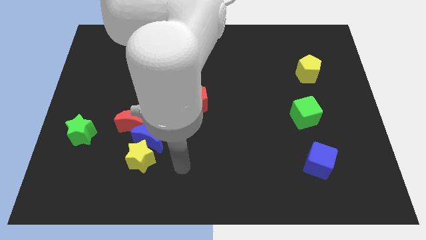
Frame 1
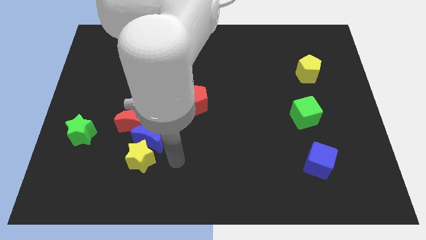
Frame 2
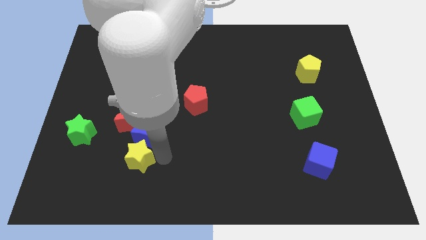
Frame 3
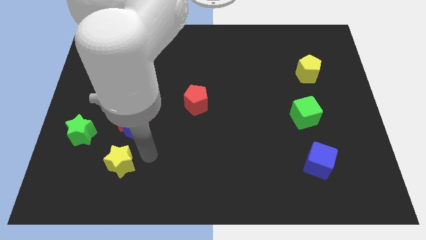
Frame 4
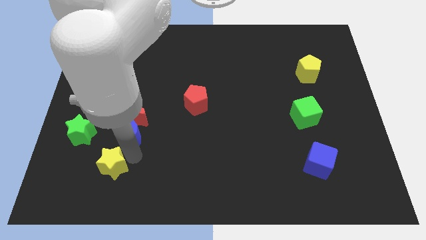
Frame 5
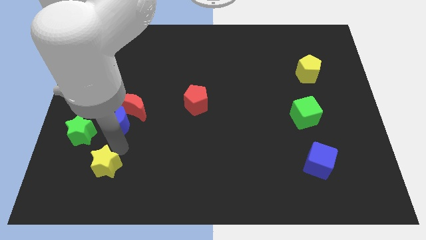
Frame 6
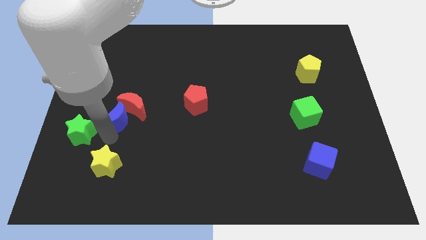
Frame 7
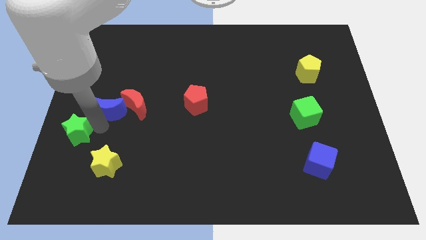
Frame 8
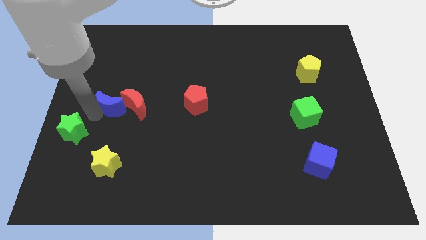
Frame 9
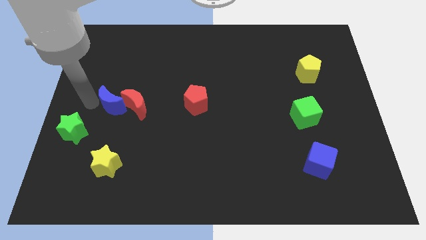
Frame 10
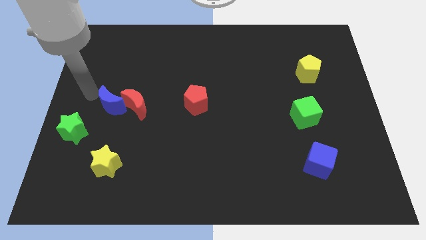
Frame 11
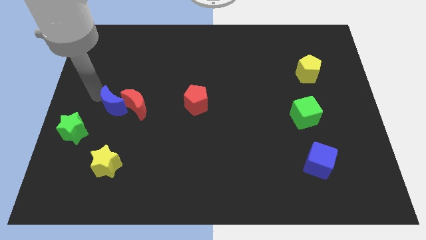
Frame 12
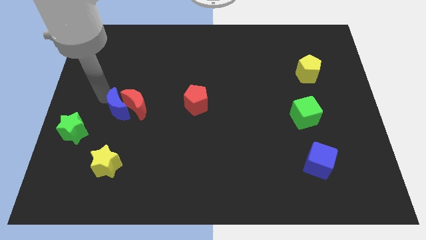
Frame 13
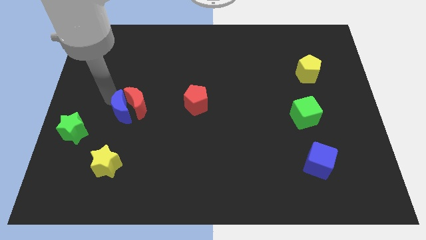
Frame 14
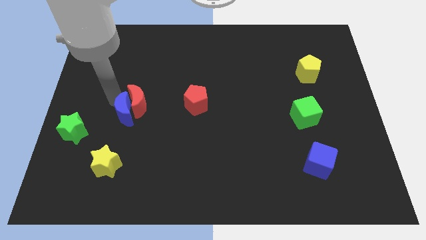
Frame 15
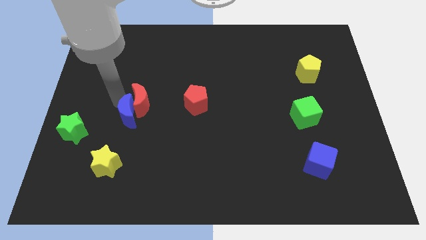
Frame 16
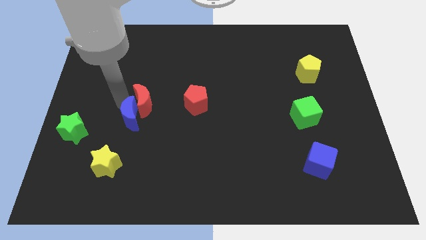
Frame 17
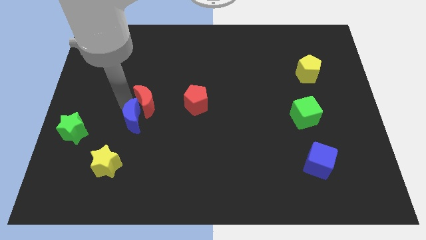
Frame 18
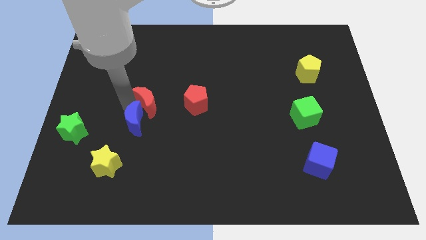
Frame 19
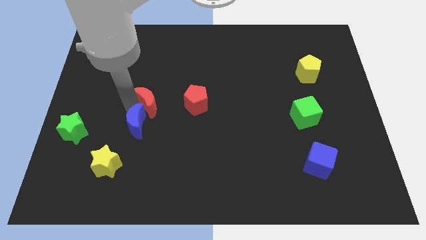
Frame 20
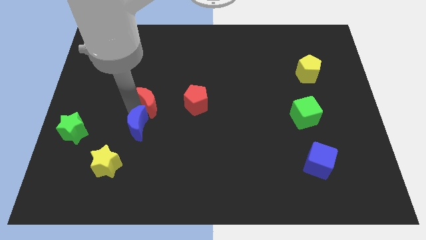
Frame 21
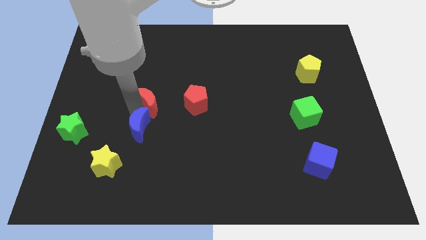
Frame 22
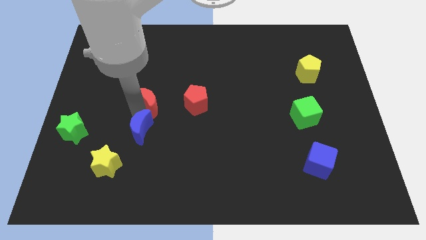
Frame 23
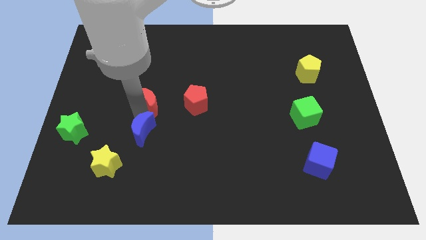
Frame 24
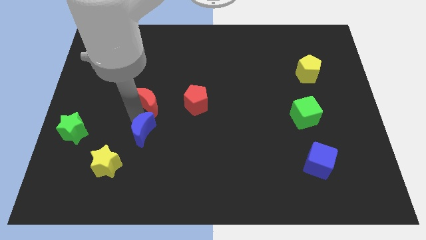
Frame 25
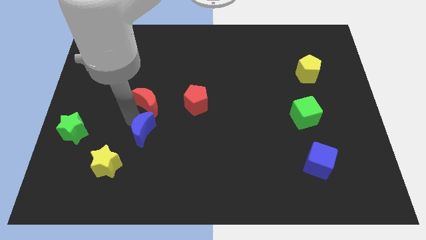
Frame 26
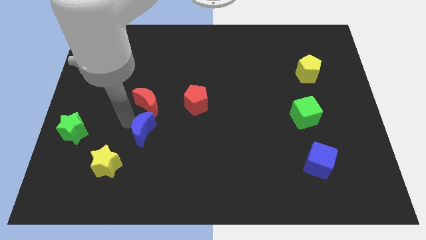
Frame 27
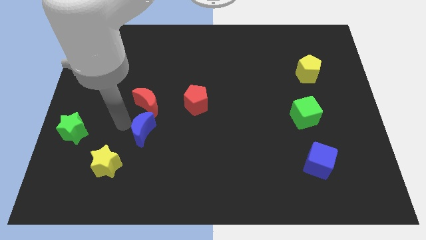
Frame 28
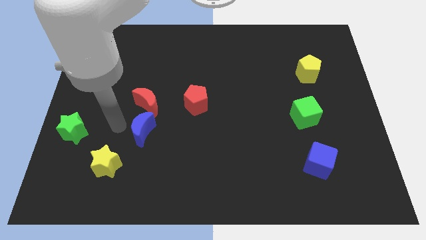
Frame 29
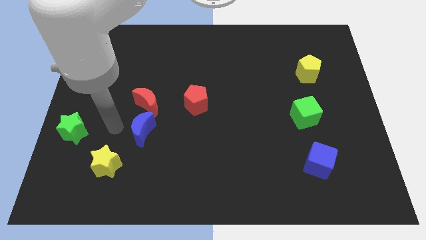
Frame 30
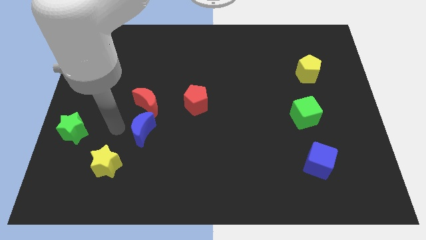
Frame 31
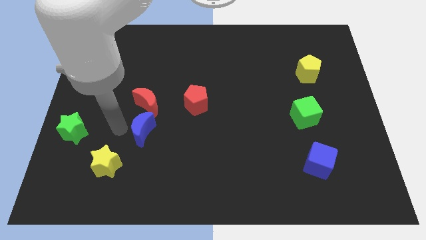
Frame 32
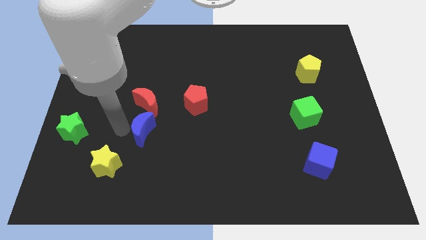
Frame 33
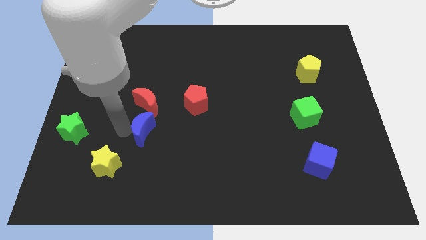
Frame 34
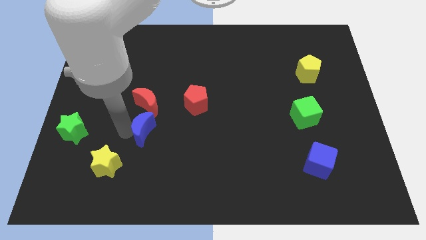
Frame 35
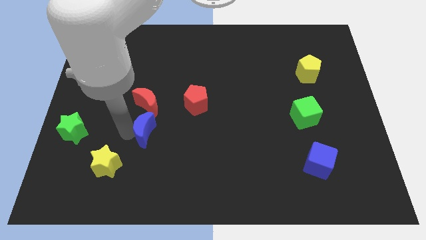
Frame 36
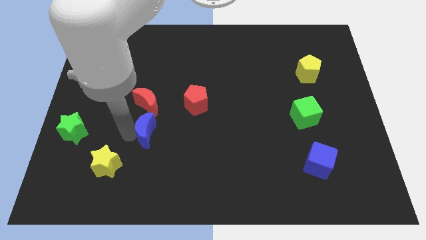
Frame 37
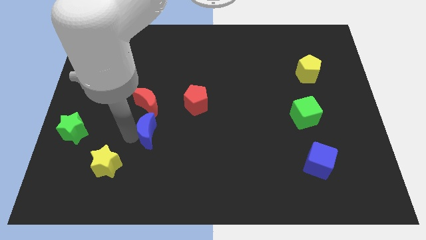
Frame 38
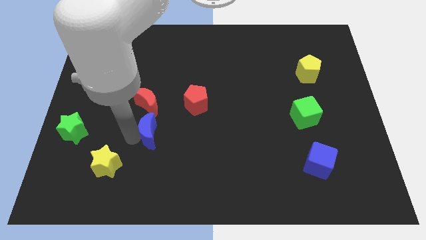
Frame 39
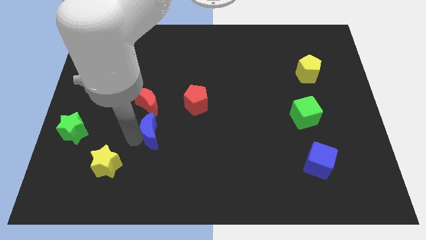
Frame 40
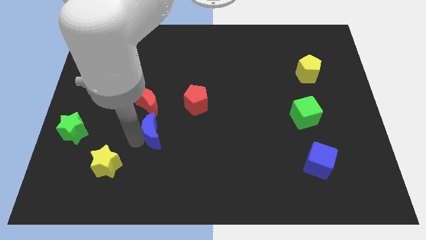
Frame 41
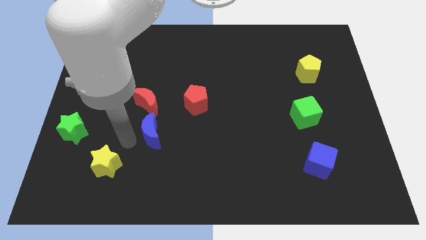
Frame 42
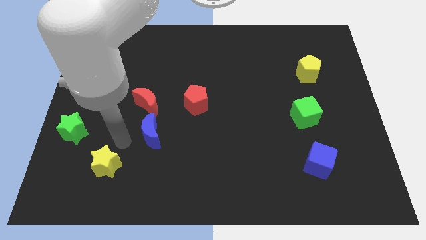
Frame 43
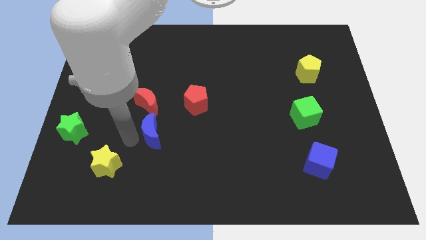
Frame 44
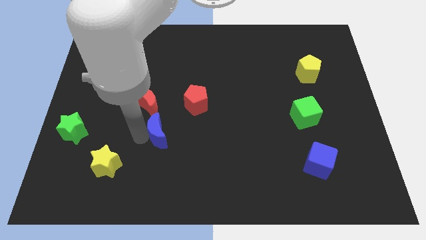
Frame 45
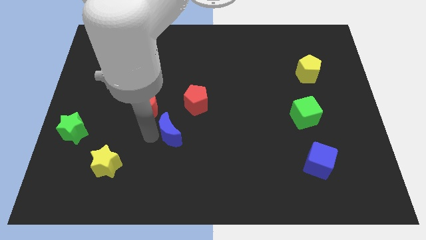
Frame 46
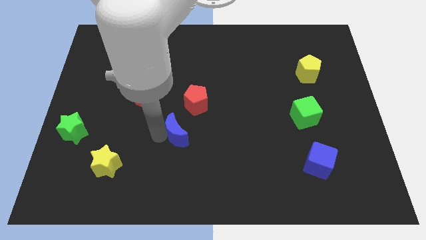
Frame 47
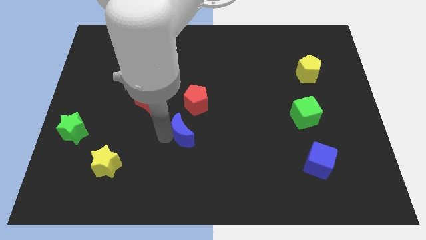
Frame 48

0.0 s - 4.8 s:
move the blue moon to the center of the board

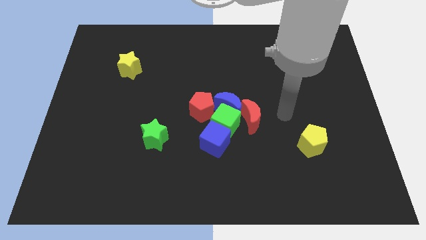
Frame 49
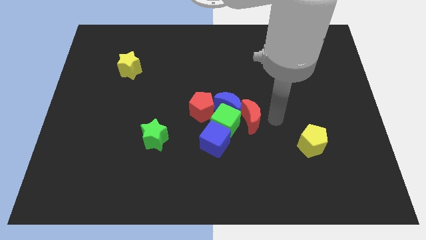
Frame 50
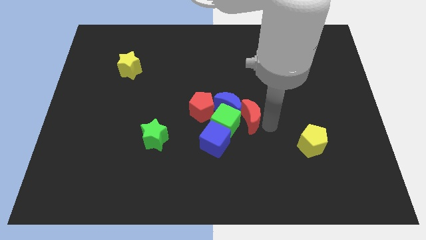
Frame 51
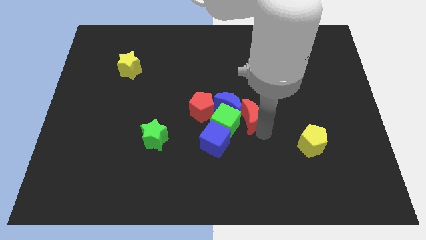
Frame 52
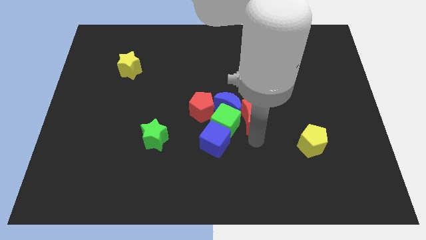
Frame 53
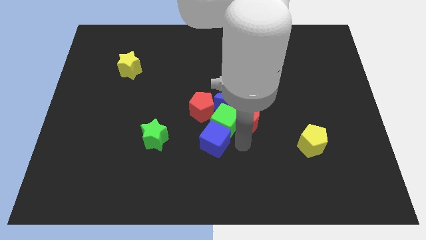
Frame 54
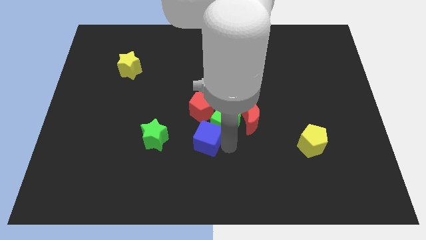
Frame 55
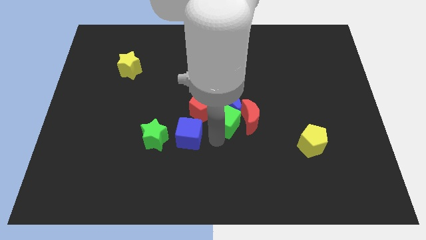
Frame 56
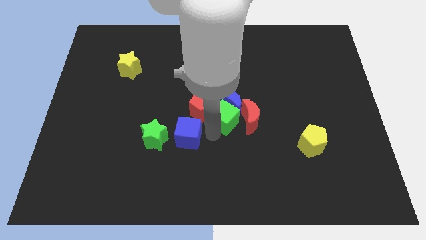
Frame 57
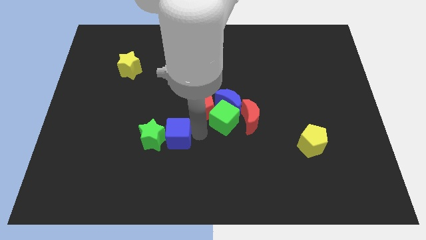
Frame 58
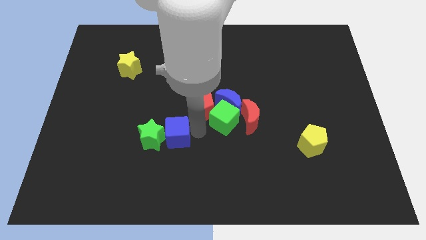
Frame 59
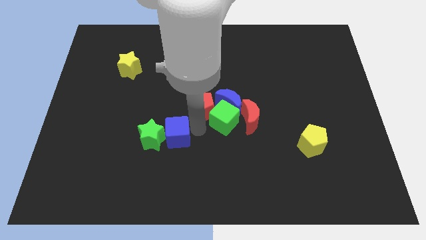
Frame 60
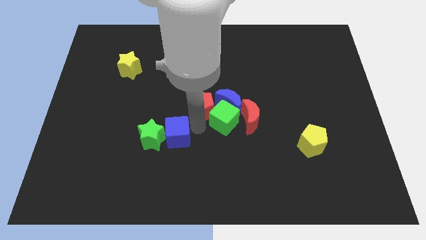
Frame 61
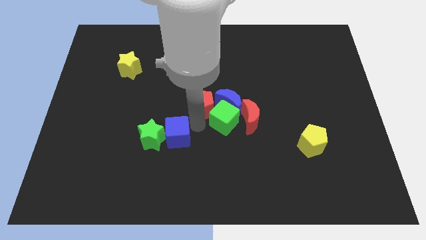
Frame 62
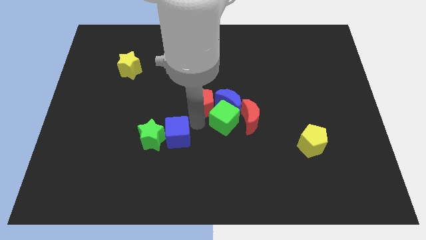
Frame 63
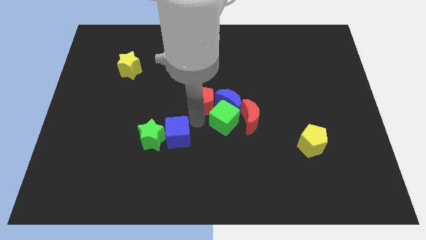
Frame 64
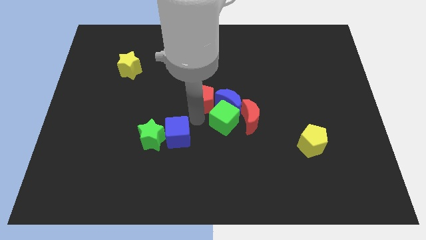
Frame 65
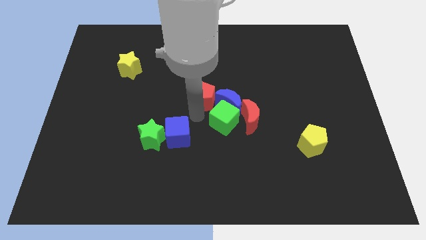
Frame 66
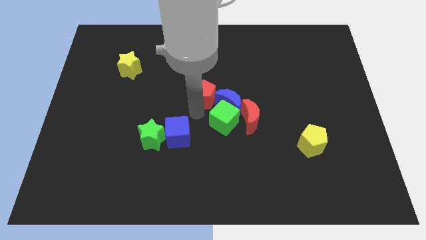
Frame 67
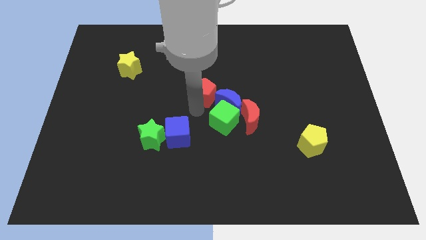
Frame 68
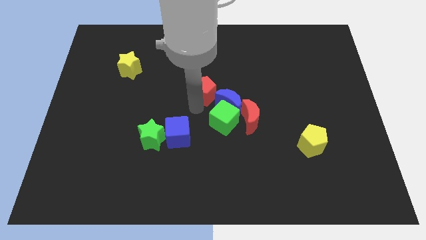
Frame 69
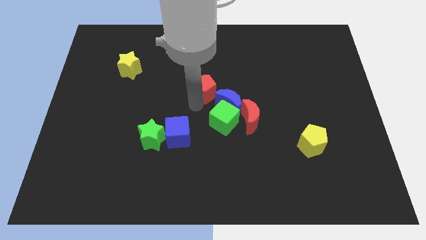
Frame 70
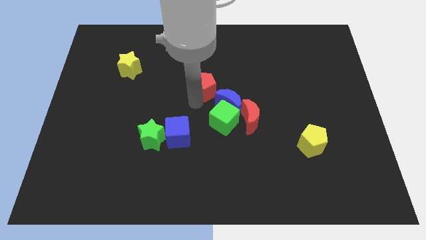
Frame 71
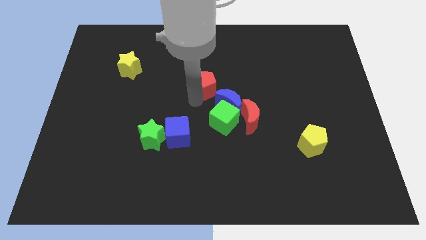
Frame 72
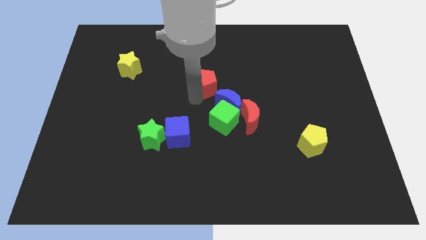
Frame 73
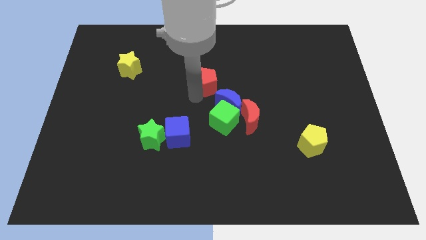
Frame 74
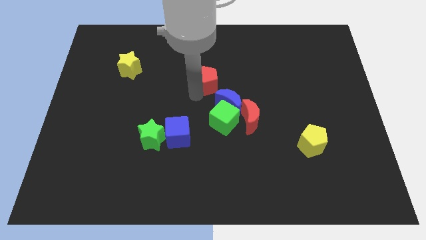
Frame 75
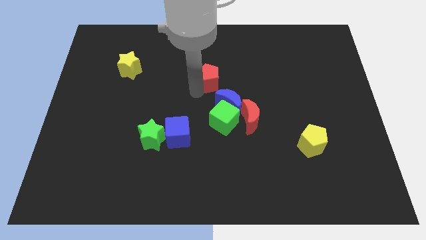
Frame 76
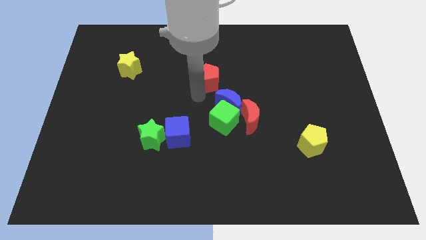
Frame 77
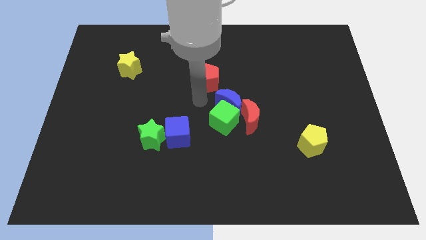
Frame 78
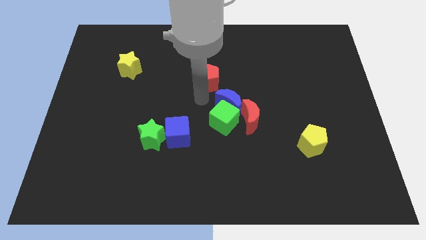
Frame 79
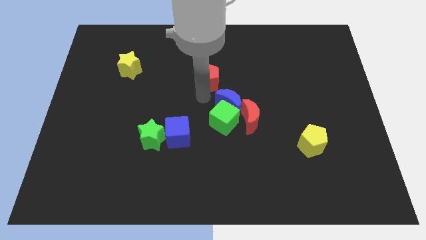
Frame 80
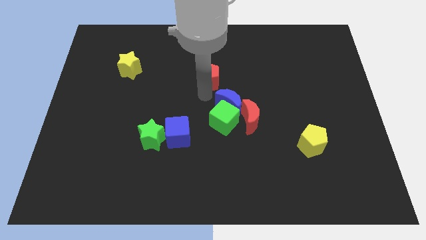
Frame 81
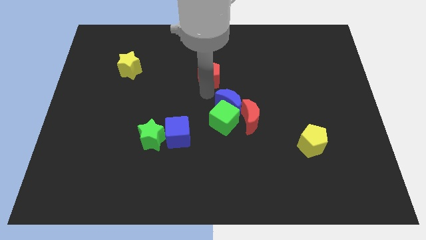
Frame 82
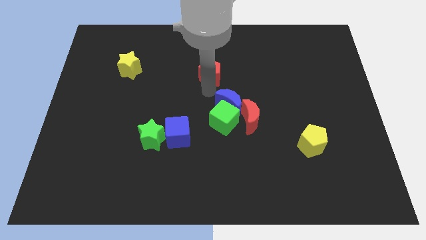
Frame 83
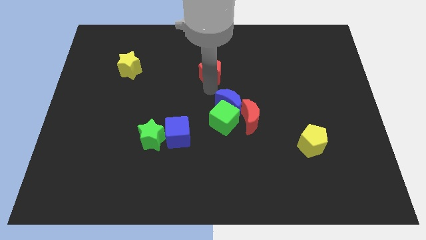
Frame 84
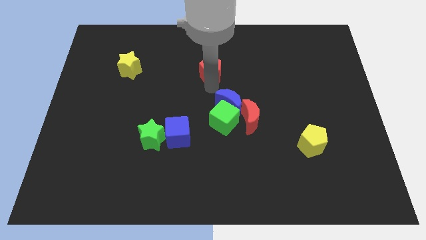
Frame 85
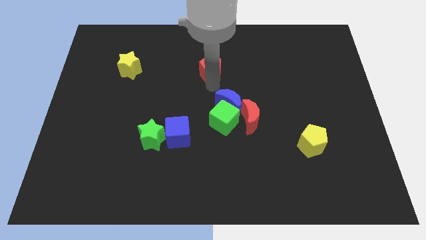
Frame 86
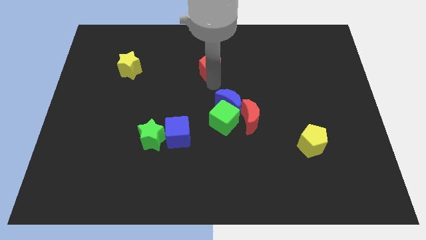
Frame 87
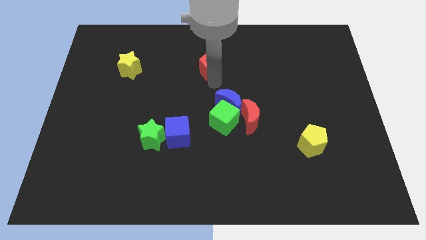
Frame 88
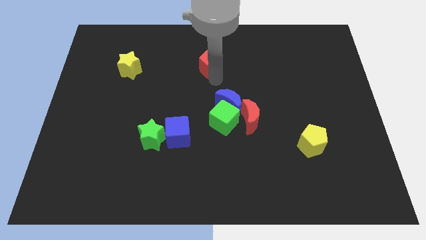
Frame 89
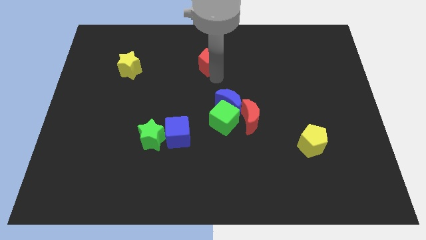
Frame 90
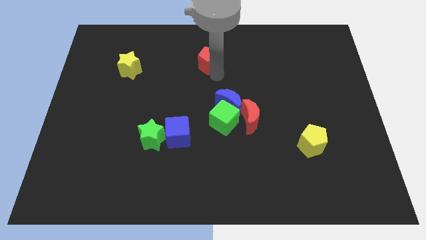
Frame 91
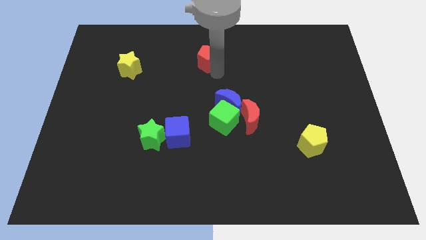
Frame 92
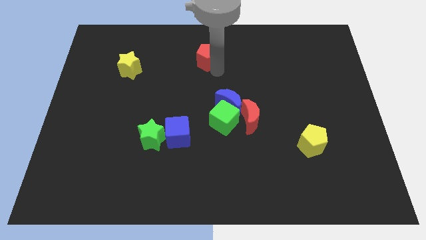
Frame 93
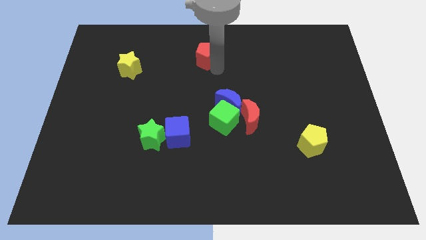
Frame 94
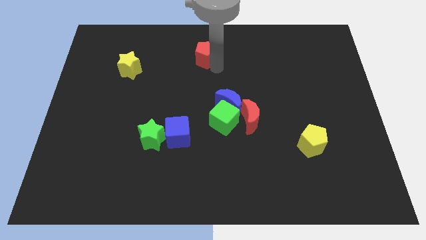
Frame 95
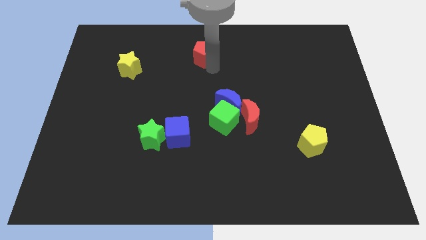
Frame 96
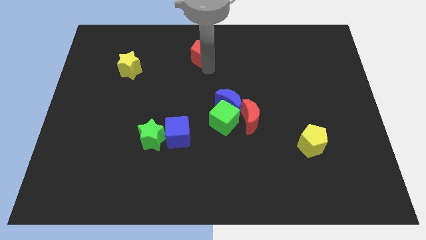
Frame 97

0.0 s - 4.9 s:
slide the red pentagon to the top
